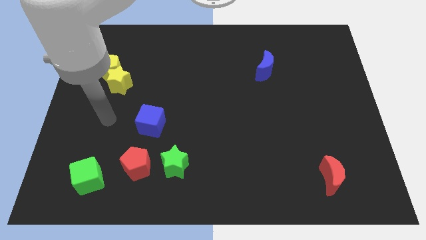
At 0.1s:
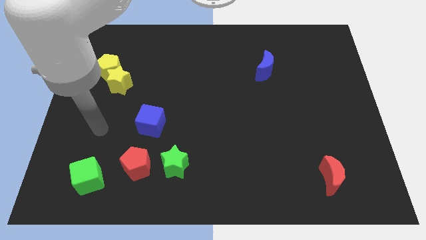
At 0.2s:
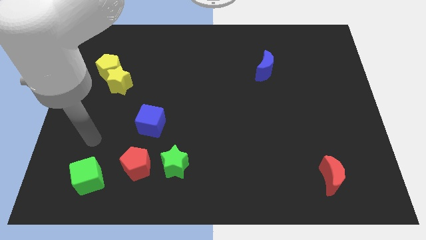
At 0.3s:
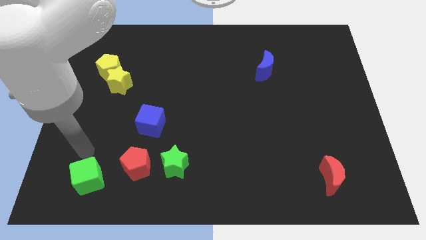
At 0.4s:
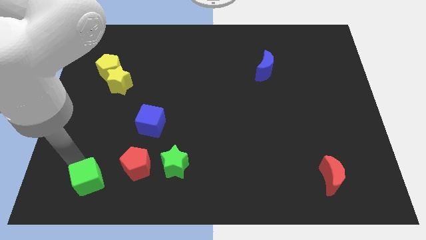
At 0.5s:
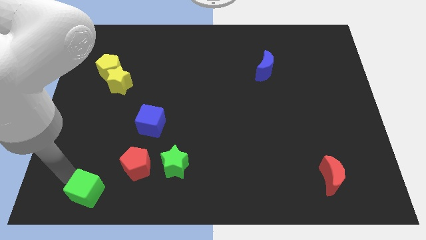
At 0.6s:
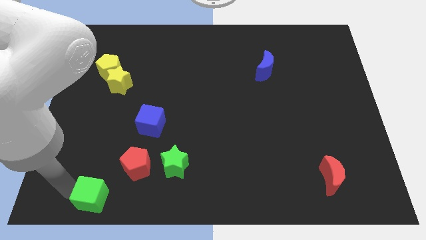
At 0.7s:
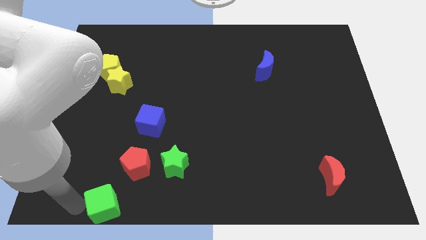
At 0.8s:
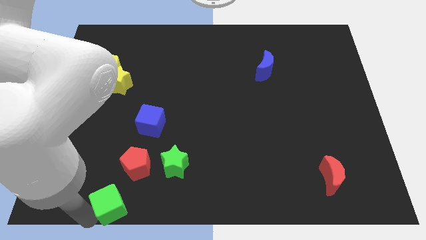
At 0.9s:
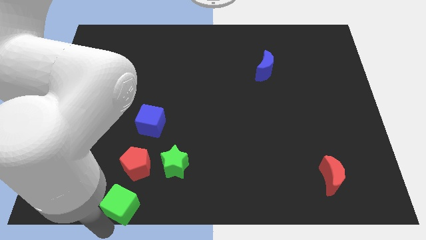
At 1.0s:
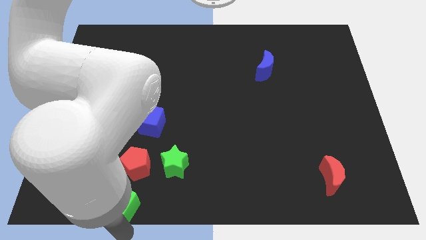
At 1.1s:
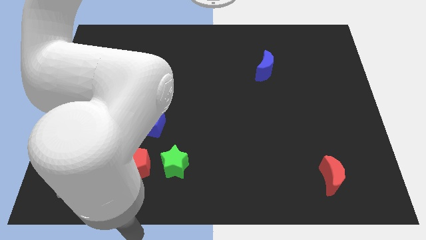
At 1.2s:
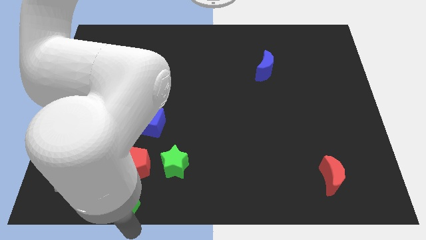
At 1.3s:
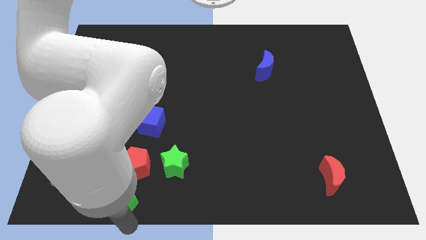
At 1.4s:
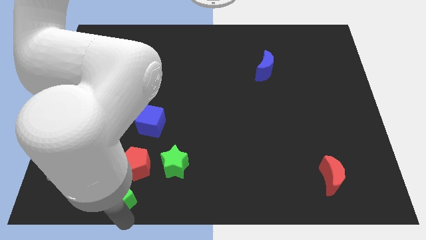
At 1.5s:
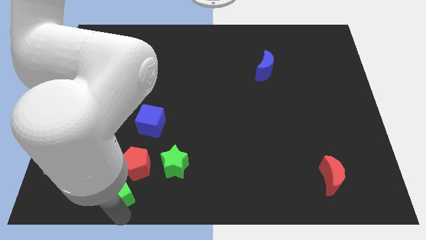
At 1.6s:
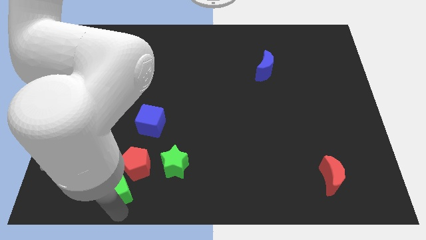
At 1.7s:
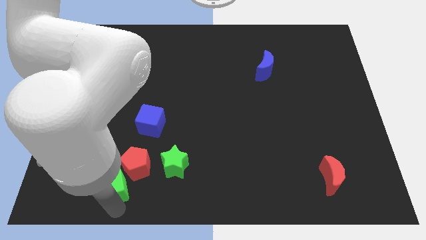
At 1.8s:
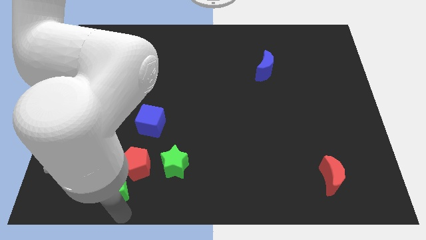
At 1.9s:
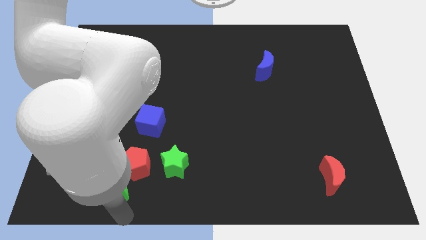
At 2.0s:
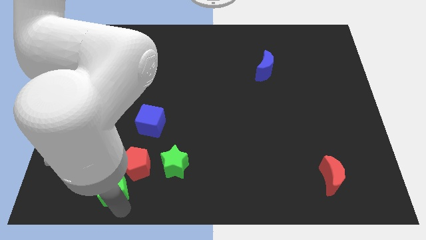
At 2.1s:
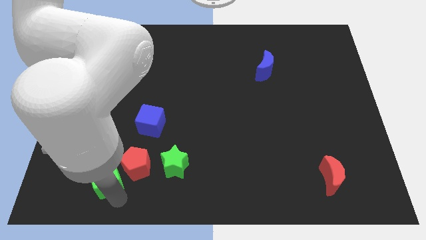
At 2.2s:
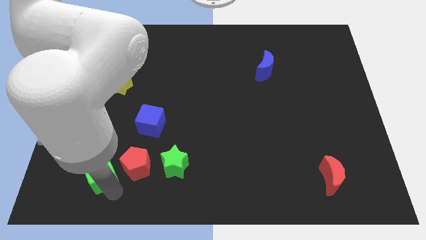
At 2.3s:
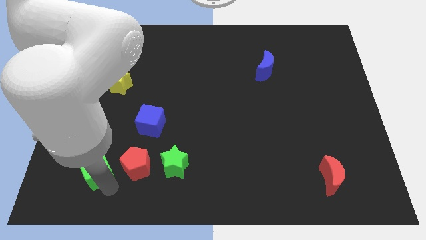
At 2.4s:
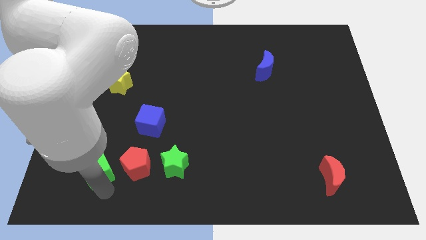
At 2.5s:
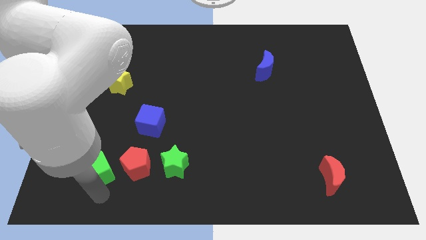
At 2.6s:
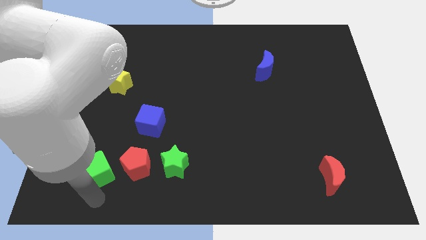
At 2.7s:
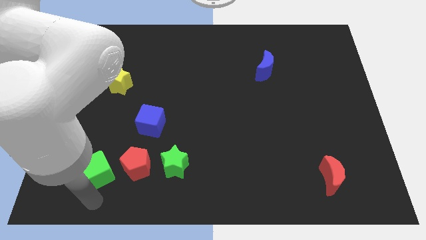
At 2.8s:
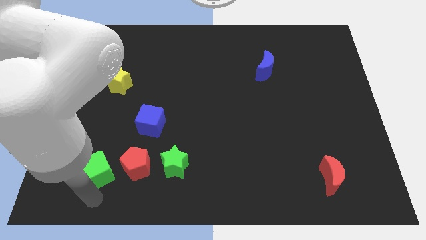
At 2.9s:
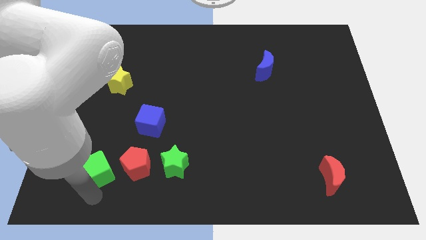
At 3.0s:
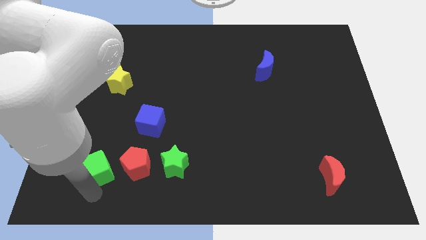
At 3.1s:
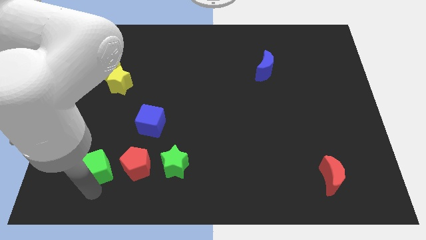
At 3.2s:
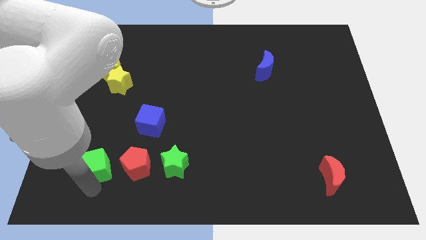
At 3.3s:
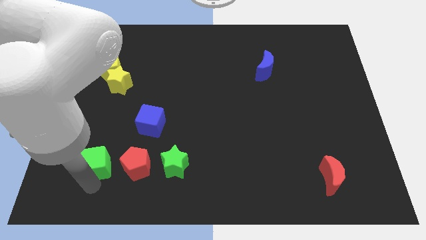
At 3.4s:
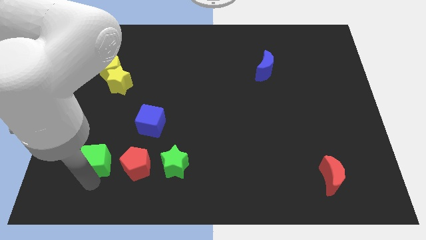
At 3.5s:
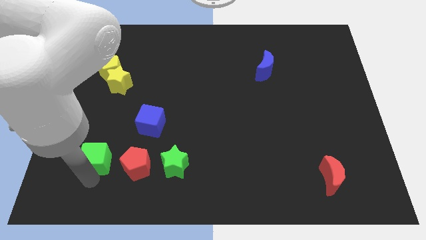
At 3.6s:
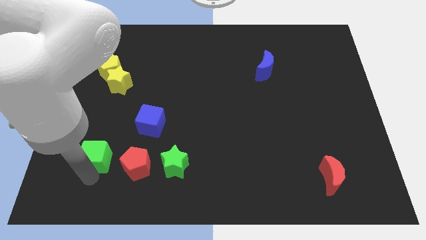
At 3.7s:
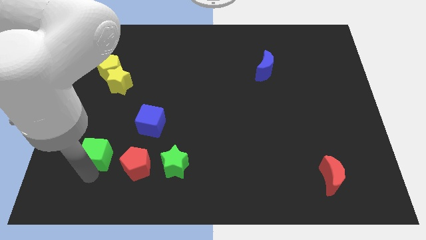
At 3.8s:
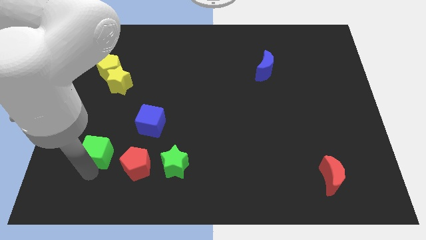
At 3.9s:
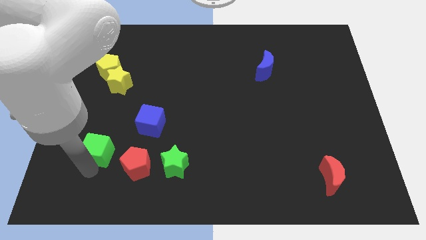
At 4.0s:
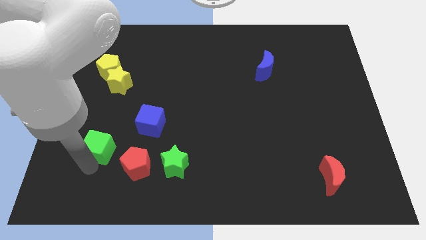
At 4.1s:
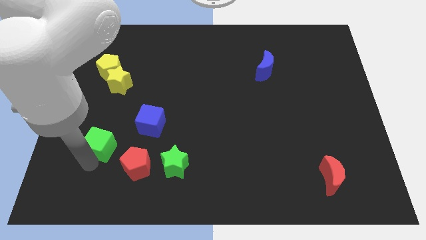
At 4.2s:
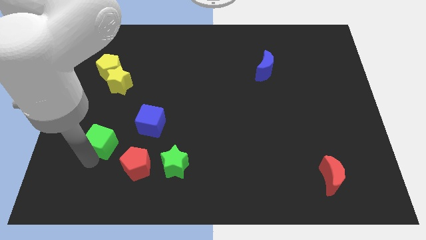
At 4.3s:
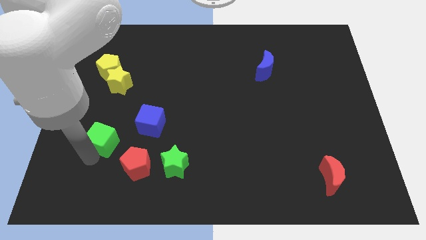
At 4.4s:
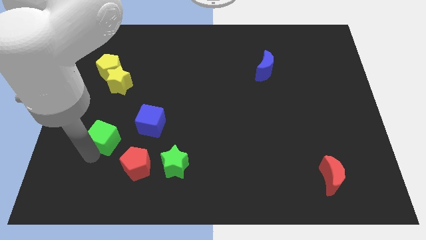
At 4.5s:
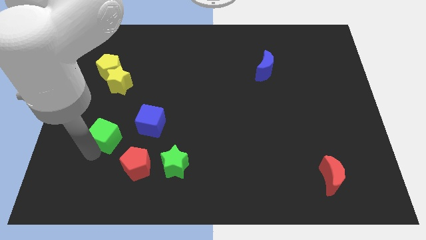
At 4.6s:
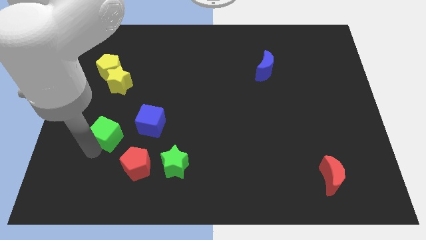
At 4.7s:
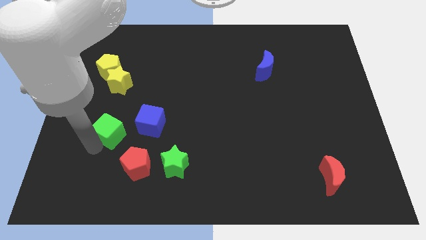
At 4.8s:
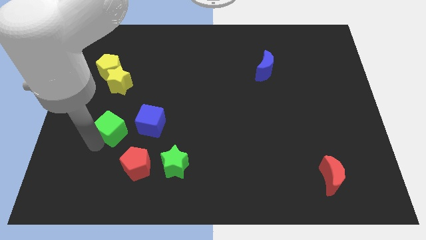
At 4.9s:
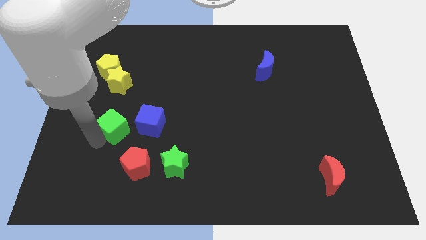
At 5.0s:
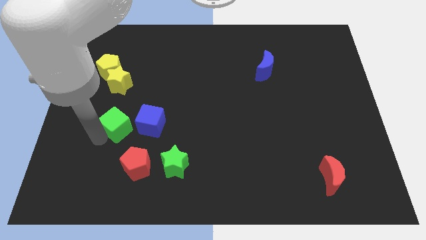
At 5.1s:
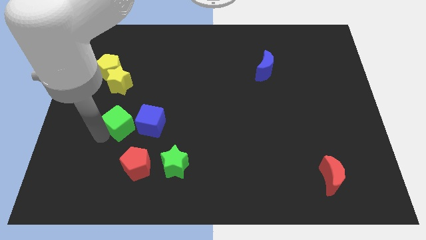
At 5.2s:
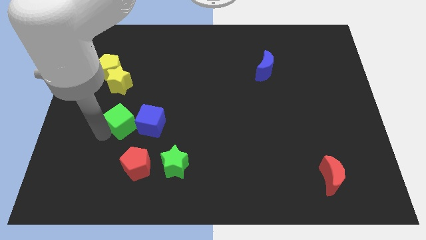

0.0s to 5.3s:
put the green cube to the top of the red pentagon

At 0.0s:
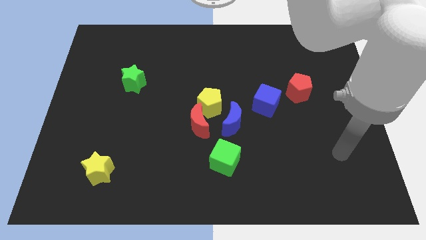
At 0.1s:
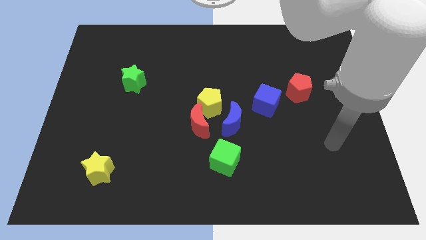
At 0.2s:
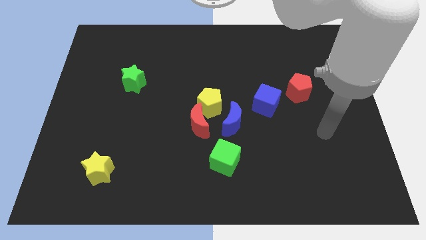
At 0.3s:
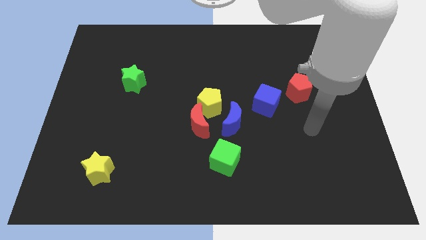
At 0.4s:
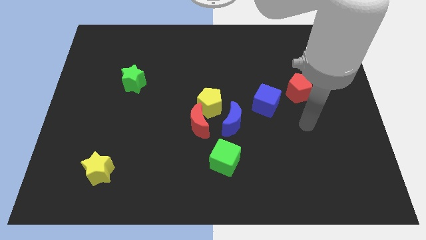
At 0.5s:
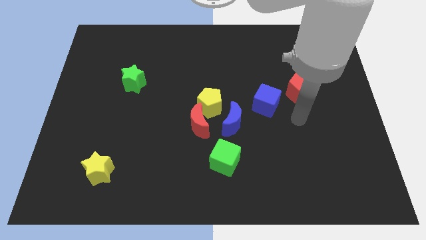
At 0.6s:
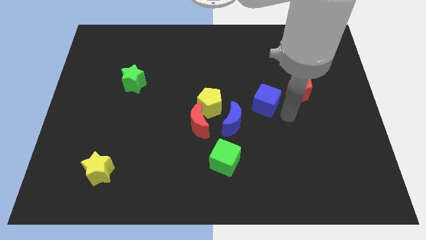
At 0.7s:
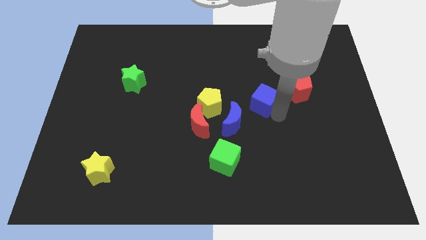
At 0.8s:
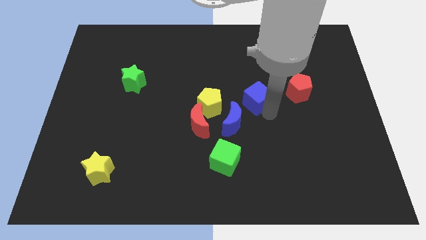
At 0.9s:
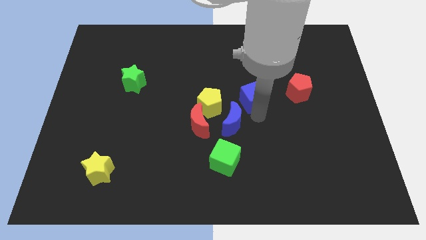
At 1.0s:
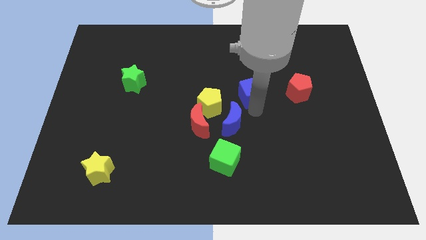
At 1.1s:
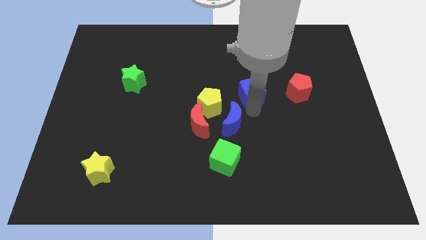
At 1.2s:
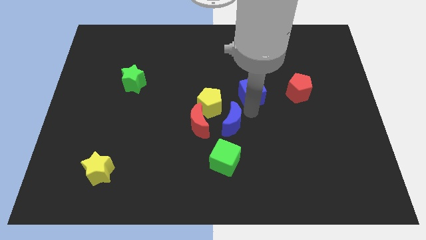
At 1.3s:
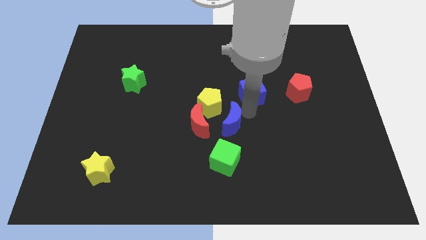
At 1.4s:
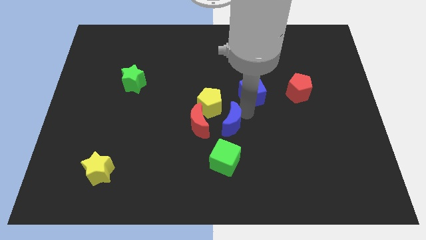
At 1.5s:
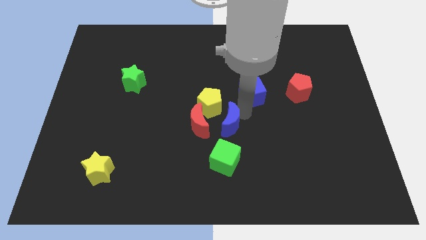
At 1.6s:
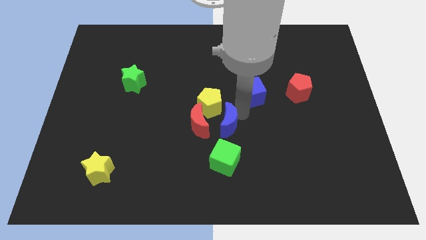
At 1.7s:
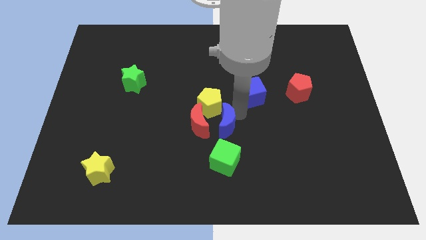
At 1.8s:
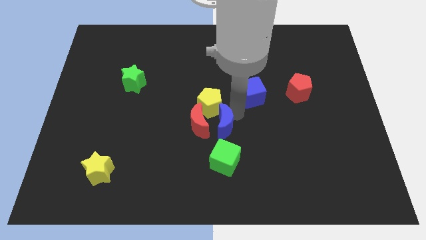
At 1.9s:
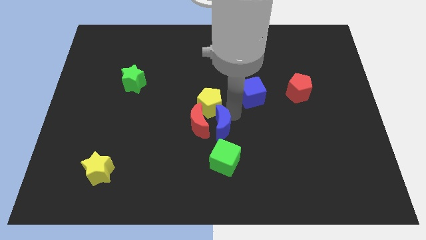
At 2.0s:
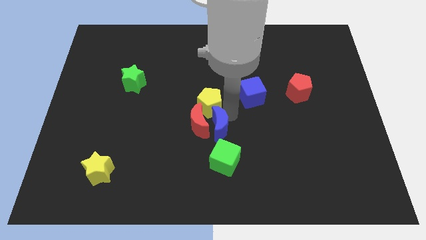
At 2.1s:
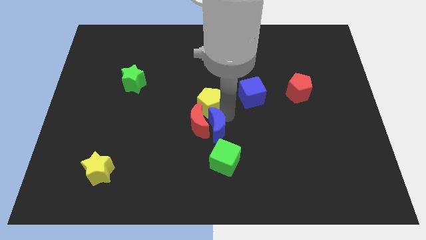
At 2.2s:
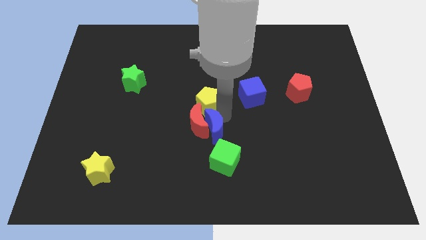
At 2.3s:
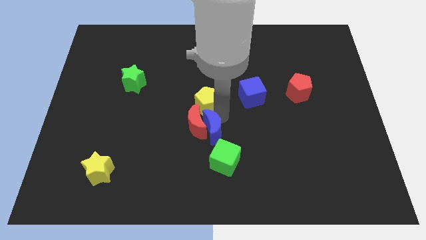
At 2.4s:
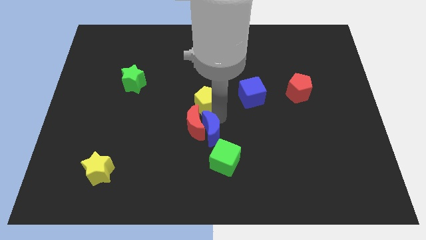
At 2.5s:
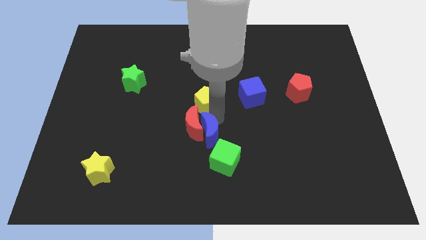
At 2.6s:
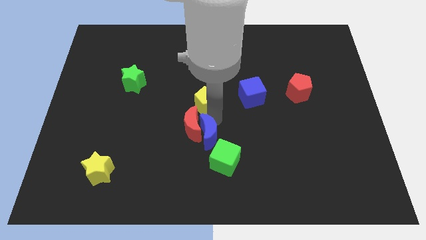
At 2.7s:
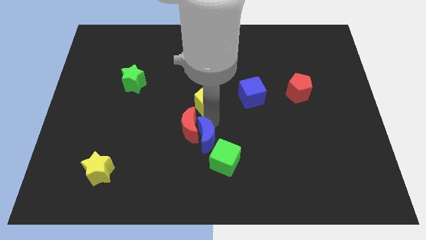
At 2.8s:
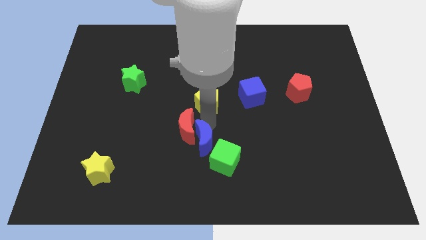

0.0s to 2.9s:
move the blue moon to the left of the green cube

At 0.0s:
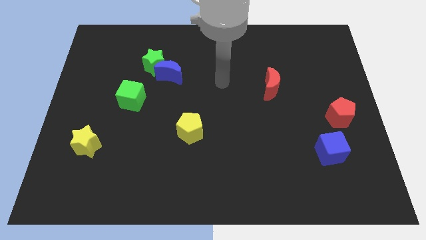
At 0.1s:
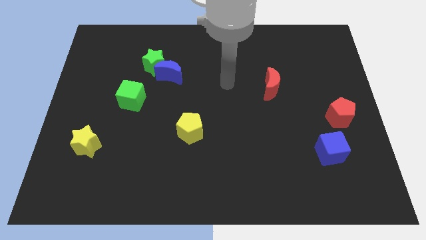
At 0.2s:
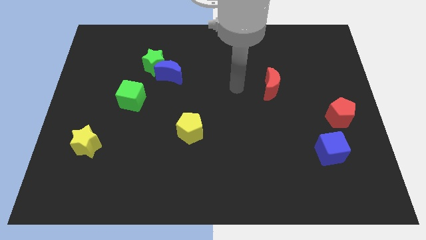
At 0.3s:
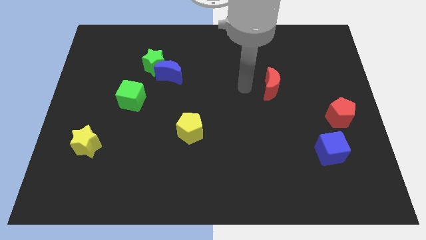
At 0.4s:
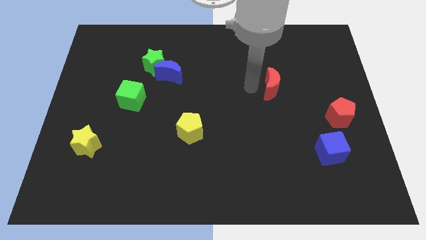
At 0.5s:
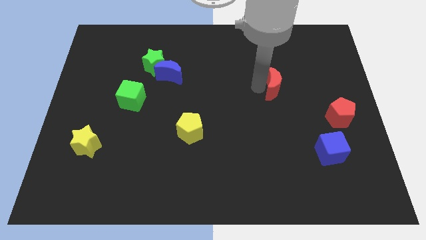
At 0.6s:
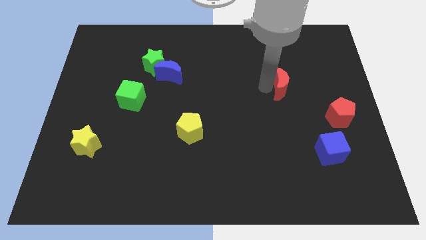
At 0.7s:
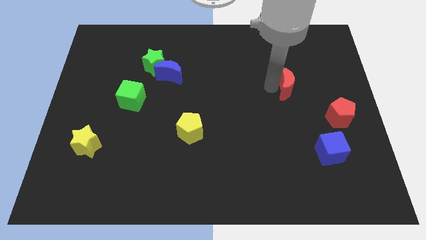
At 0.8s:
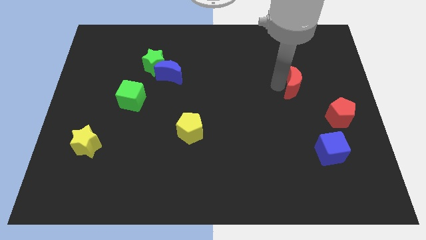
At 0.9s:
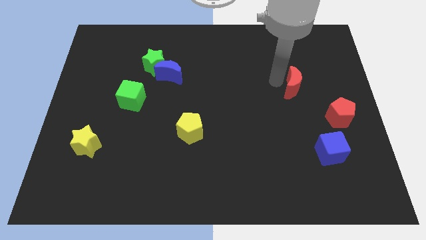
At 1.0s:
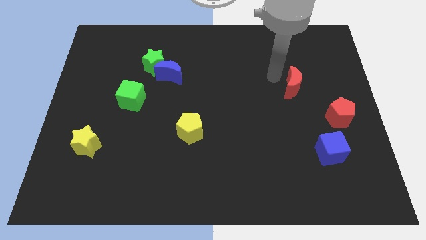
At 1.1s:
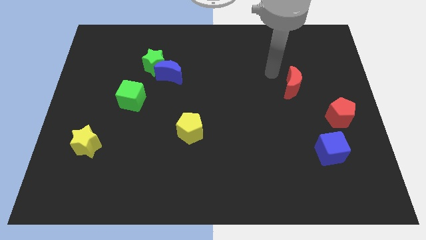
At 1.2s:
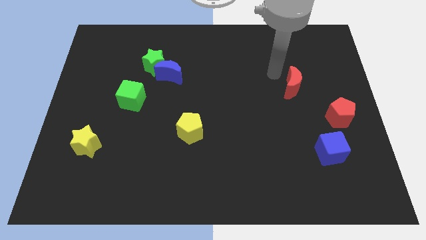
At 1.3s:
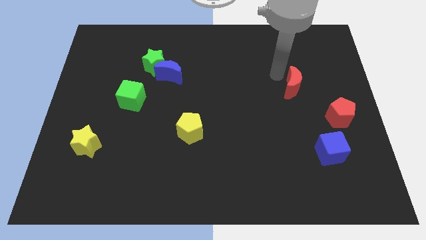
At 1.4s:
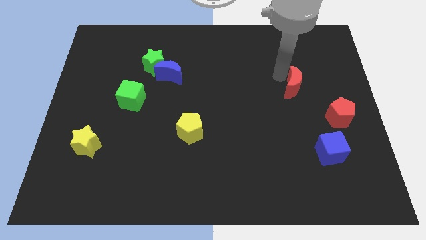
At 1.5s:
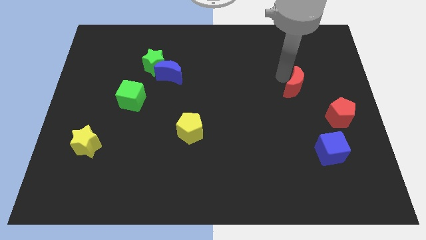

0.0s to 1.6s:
move the red moon diagonally up and to the left of the red pentagon
